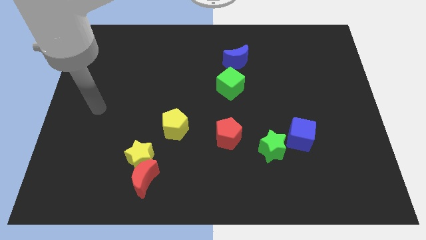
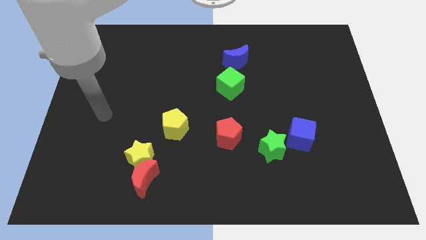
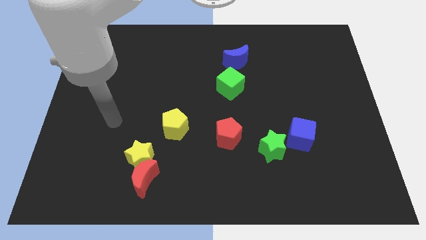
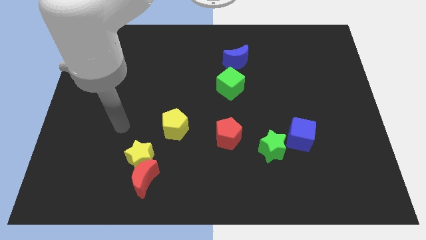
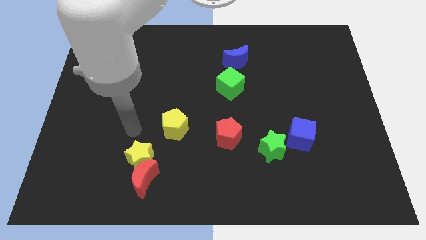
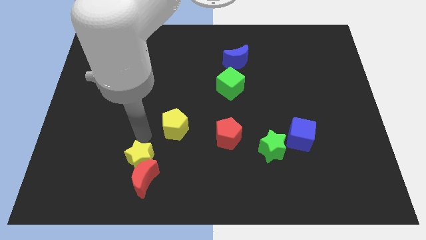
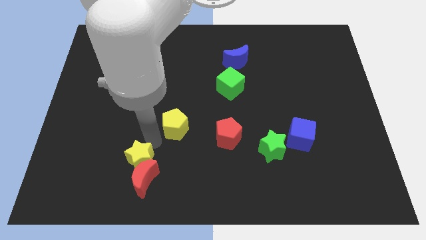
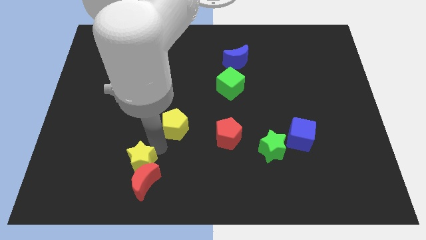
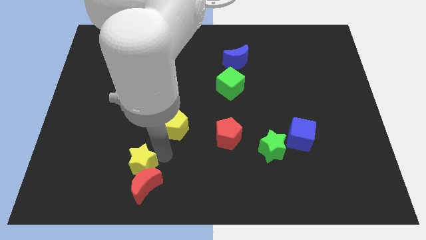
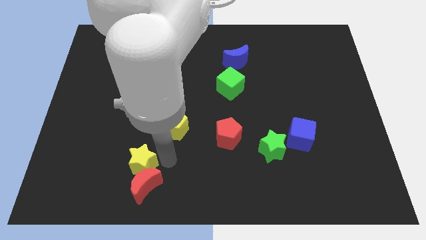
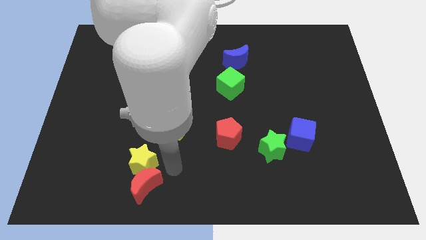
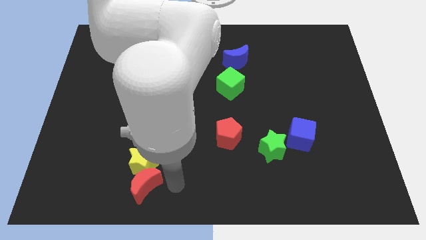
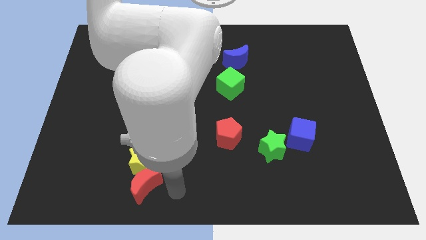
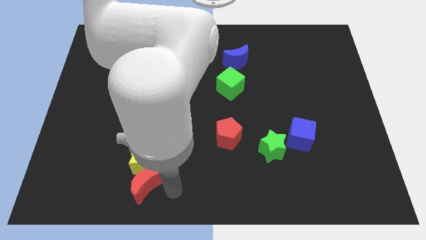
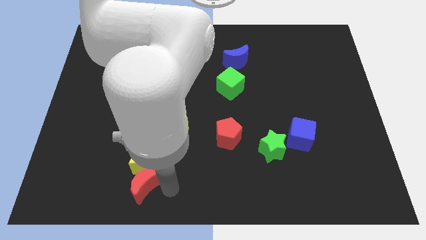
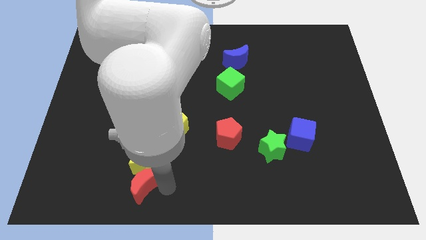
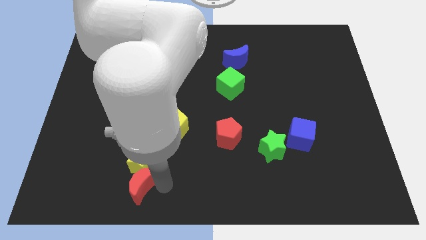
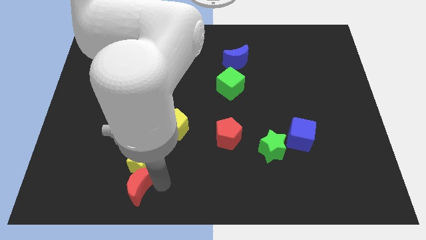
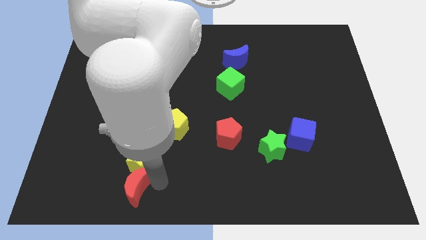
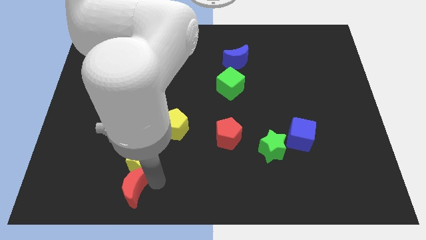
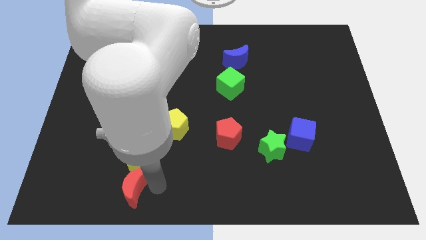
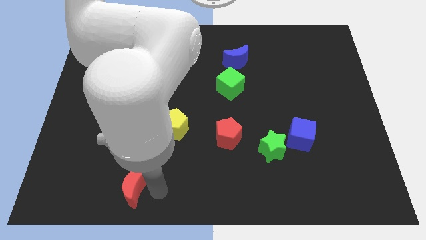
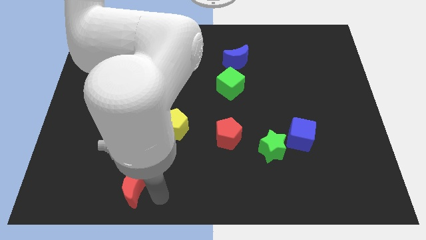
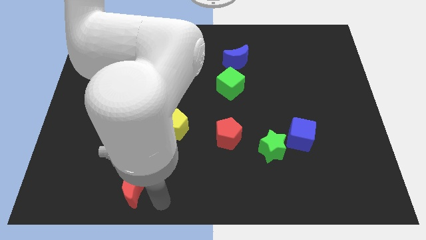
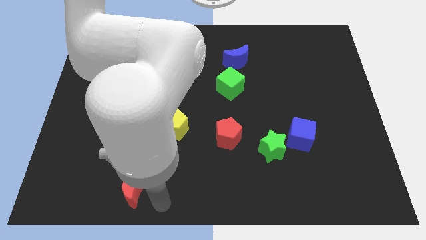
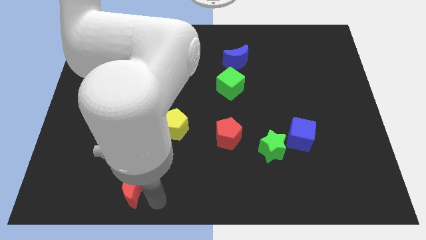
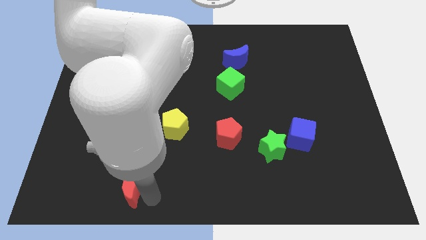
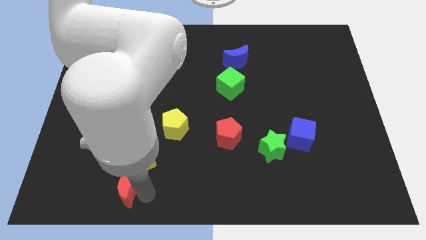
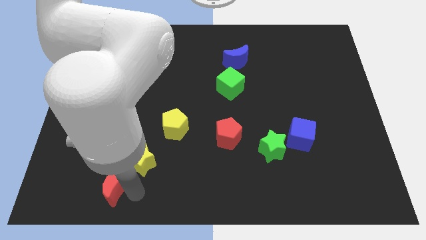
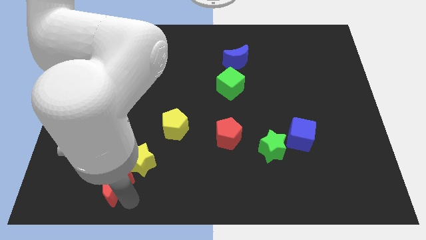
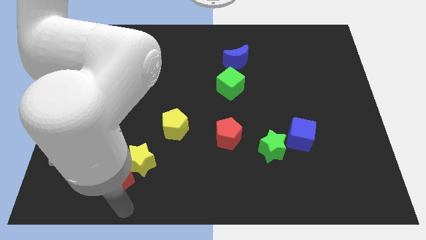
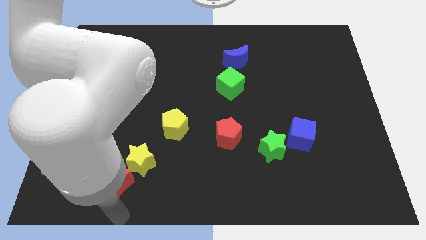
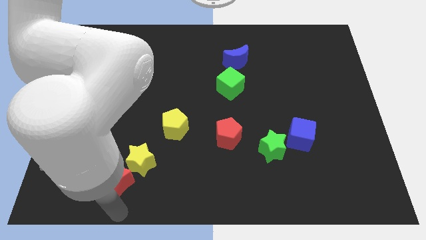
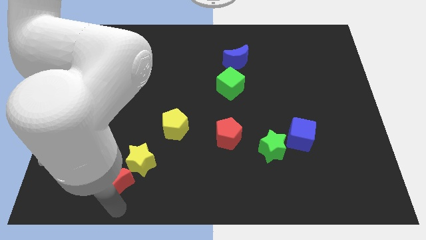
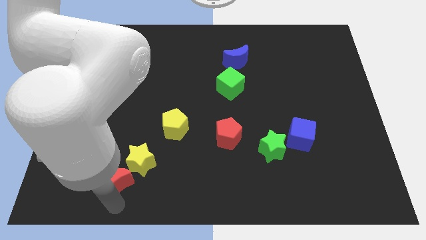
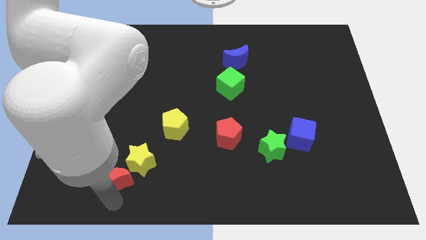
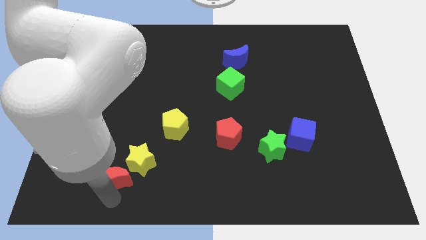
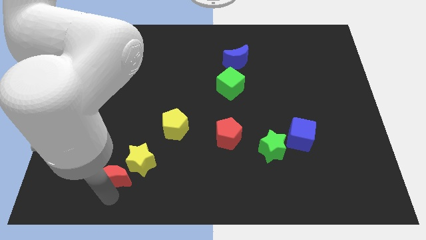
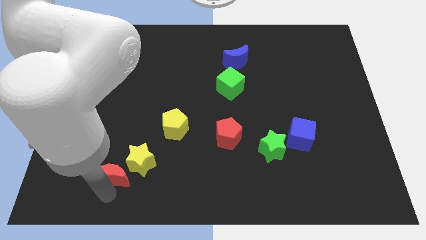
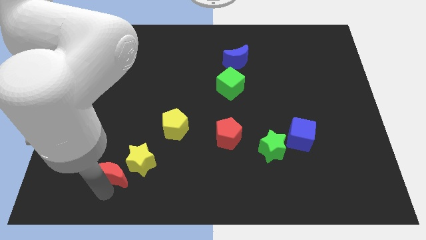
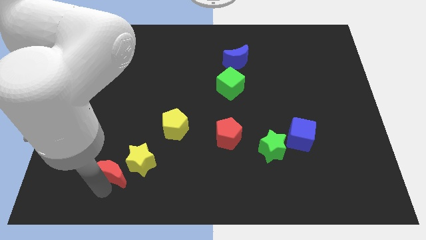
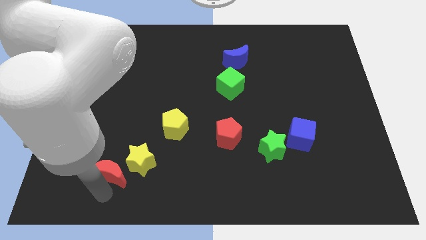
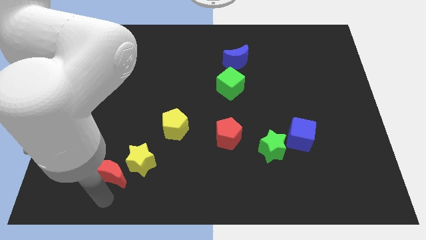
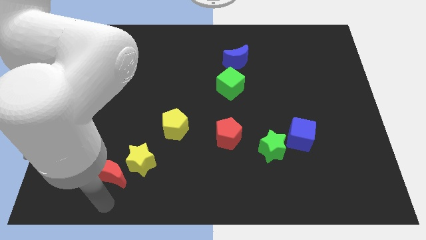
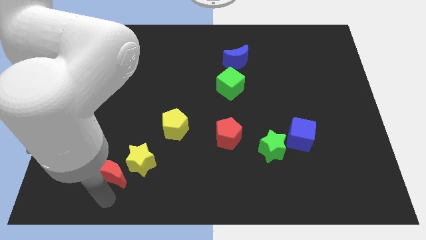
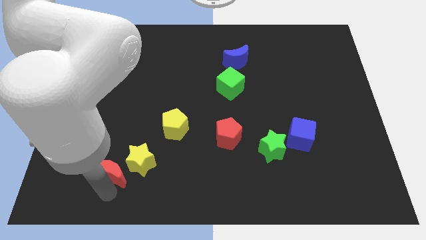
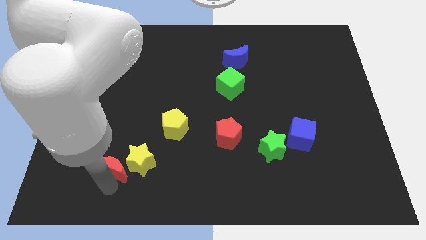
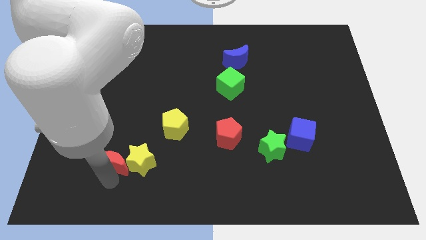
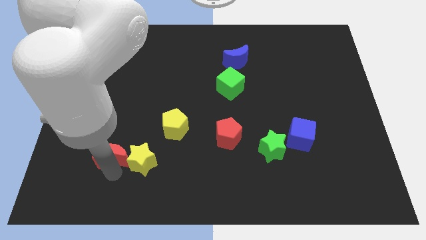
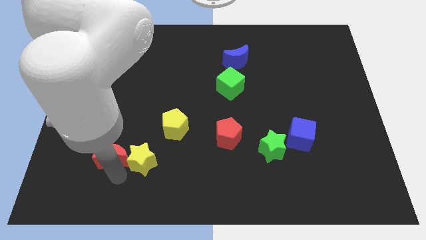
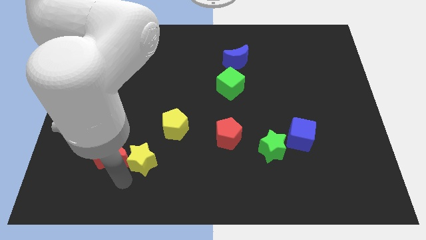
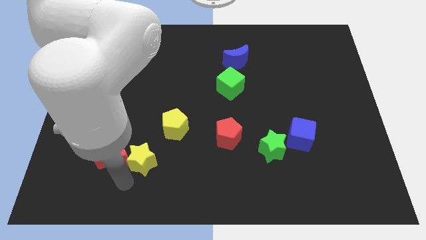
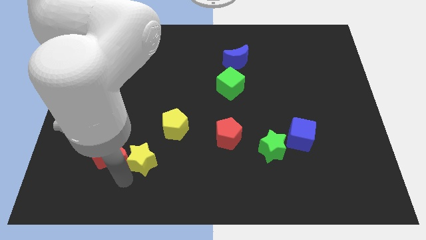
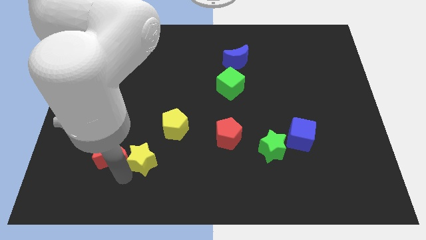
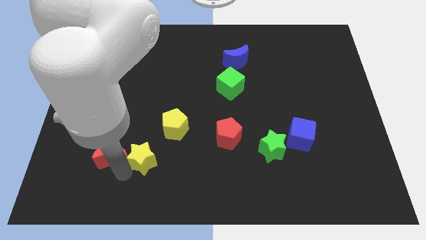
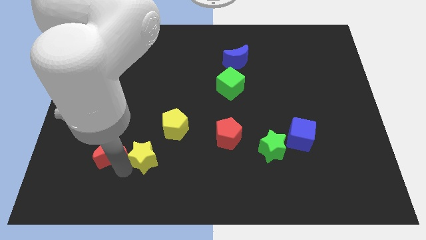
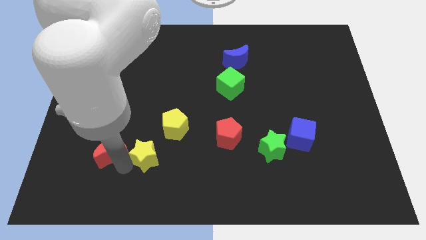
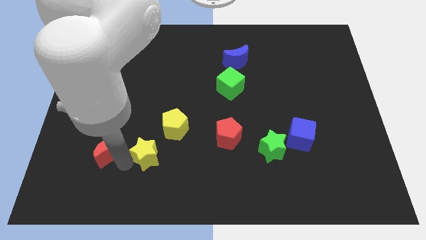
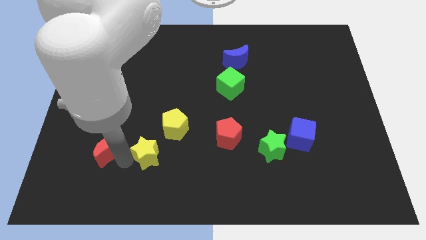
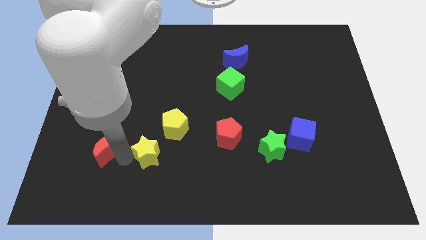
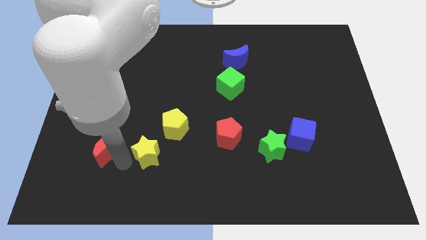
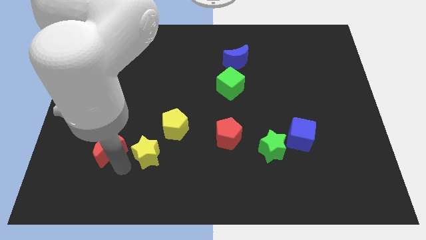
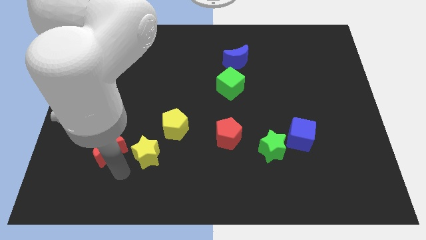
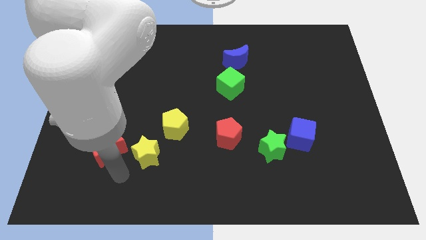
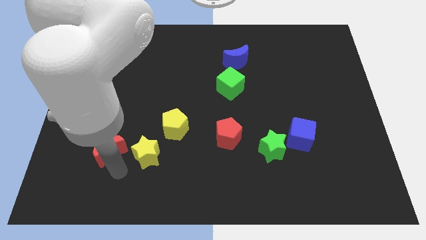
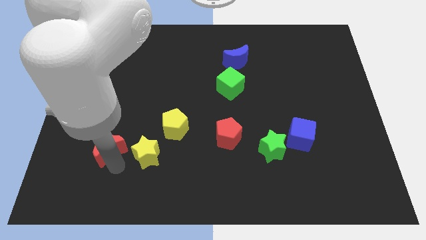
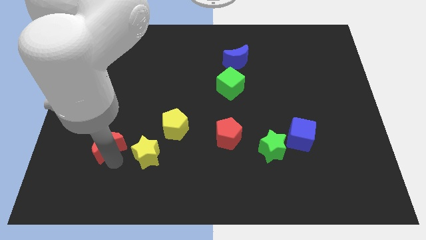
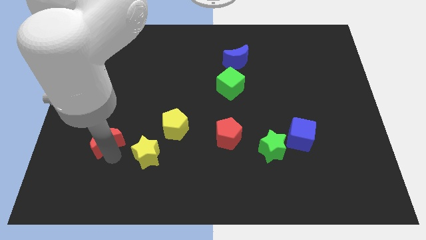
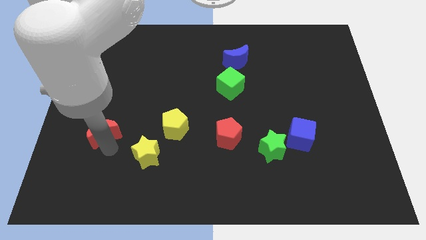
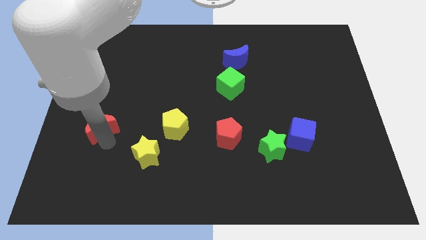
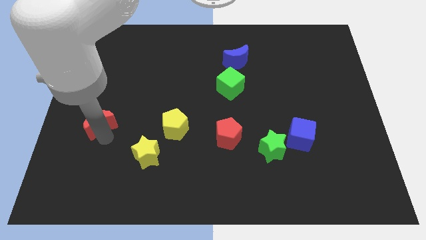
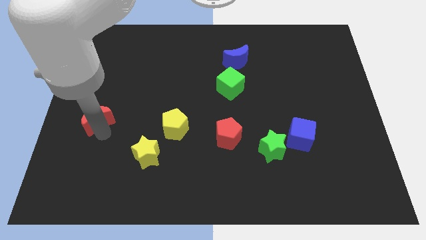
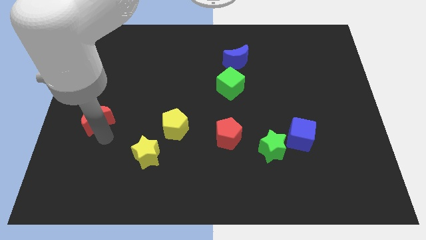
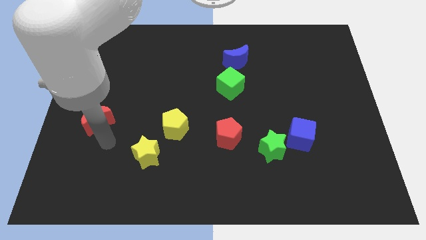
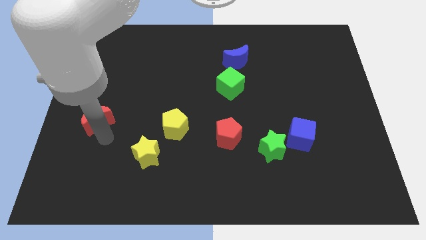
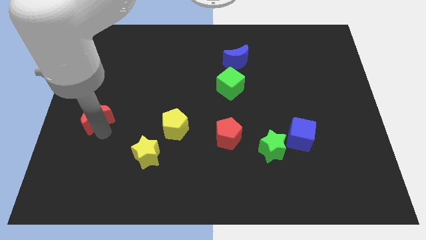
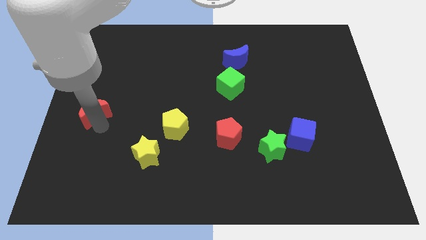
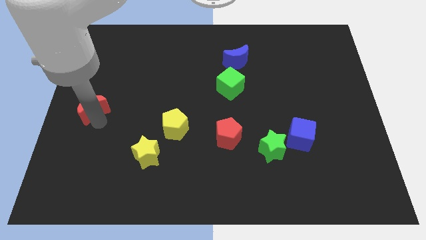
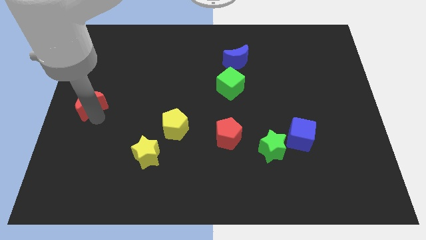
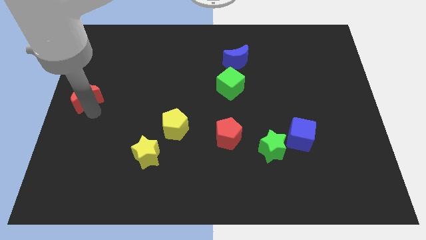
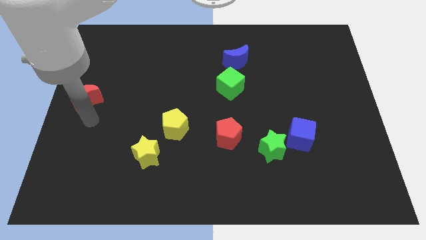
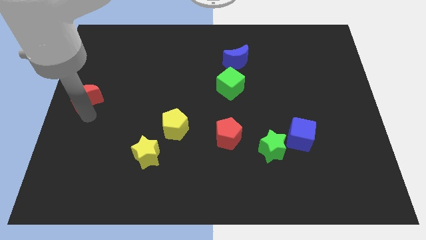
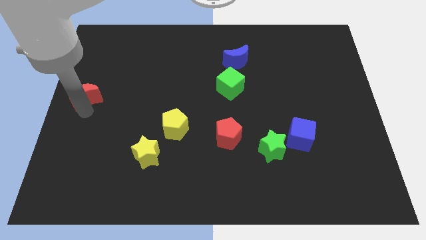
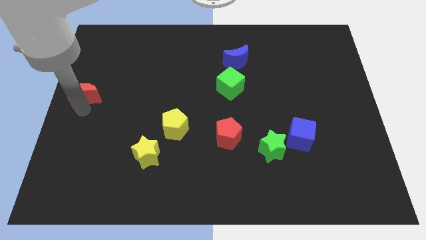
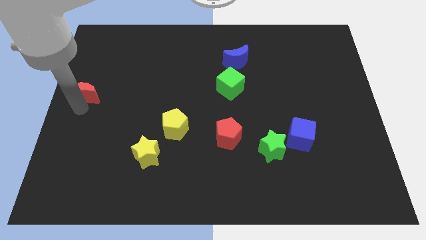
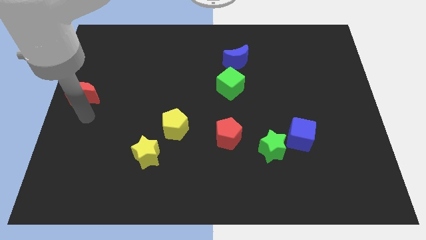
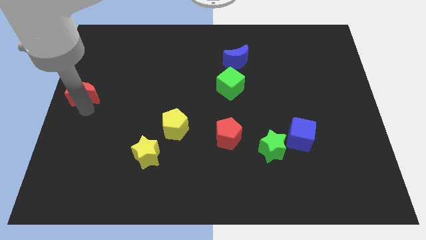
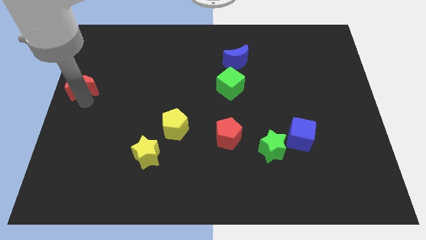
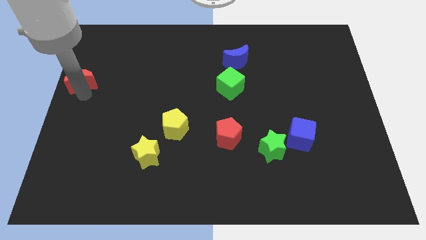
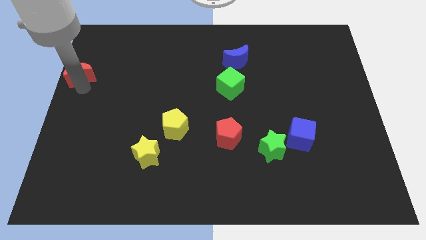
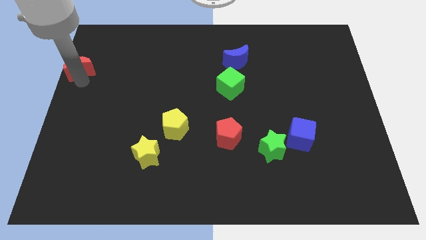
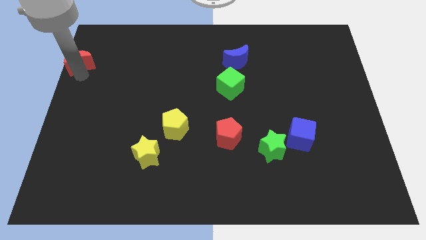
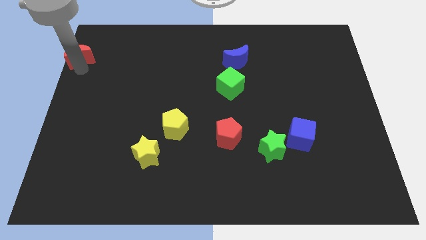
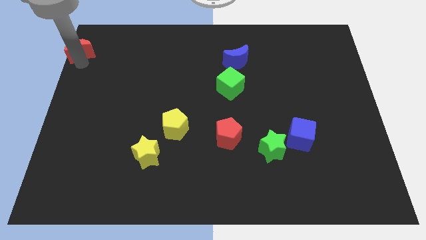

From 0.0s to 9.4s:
put the red moon to the top left of the board
